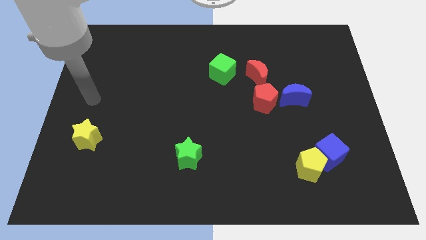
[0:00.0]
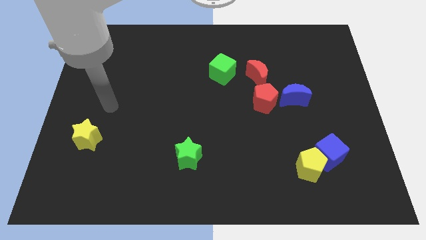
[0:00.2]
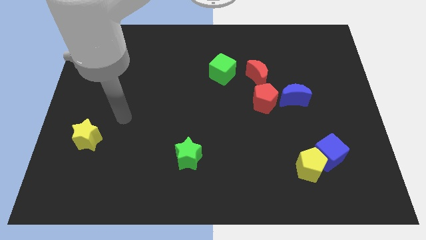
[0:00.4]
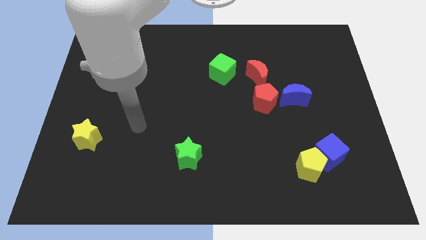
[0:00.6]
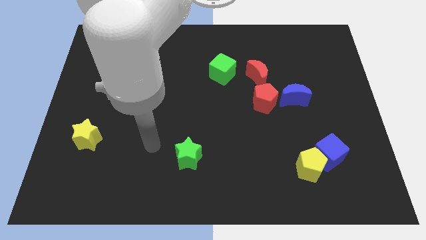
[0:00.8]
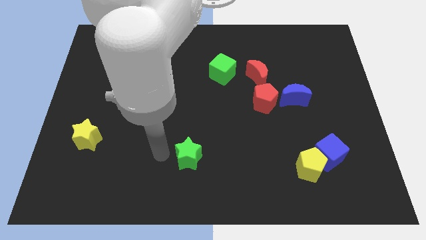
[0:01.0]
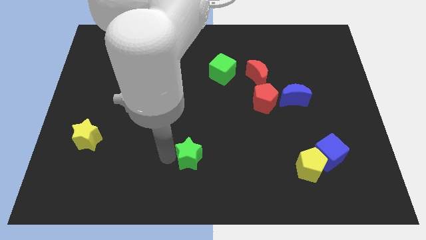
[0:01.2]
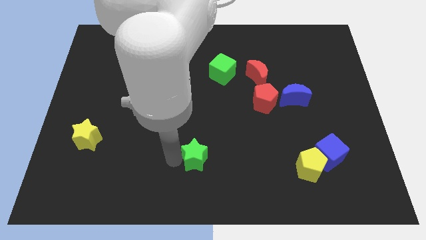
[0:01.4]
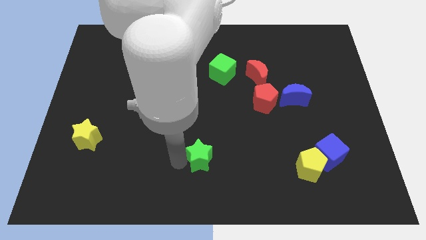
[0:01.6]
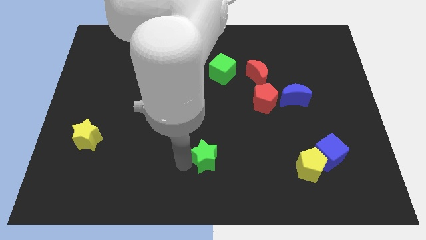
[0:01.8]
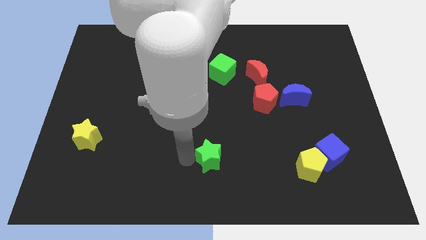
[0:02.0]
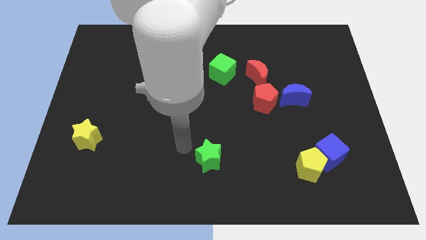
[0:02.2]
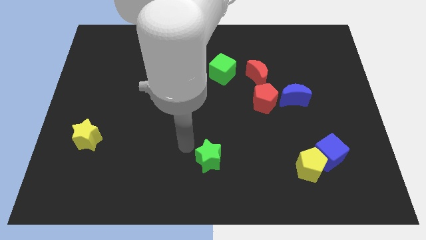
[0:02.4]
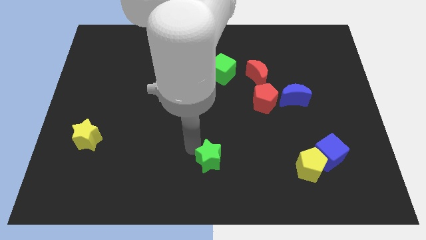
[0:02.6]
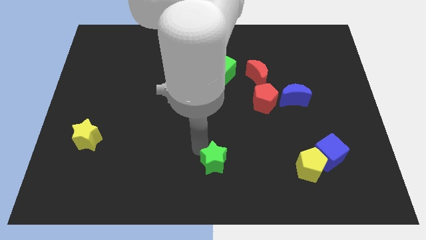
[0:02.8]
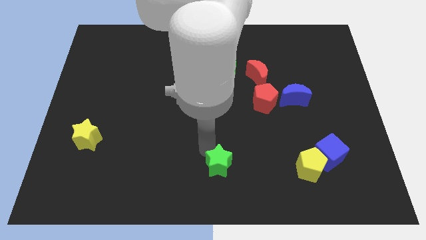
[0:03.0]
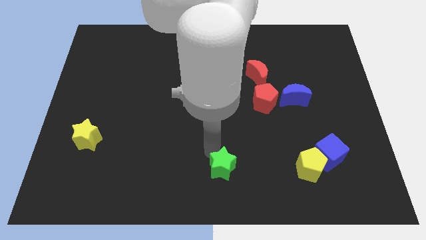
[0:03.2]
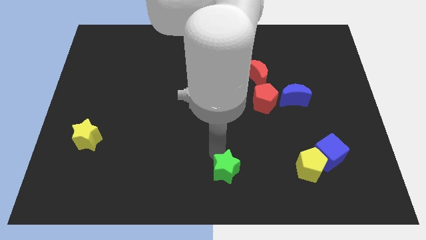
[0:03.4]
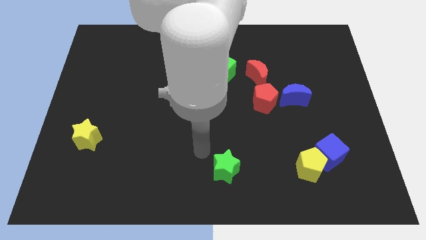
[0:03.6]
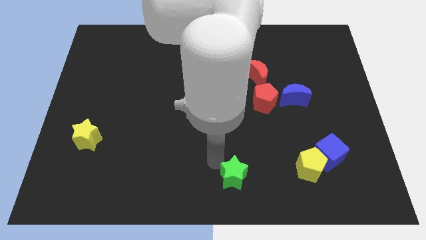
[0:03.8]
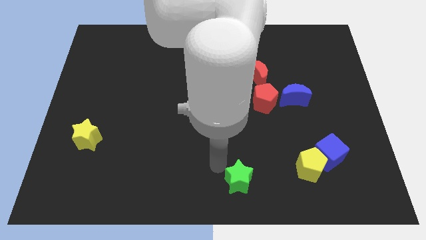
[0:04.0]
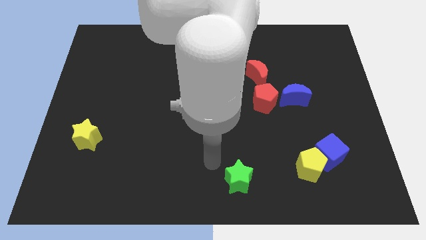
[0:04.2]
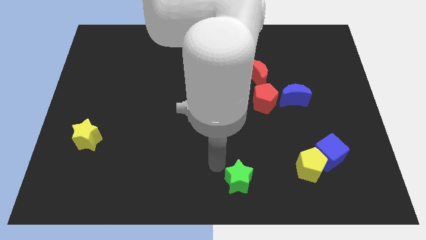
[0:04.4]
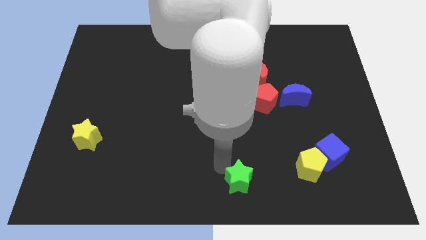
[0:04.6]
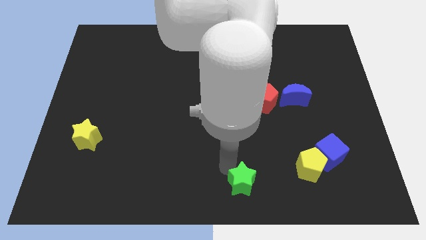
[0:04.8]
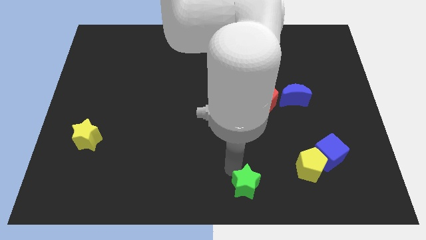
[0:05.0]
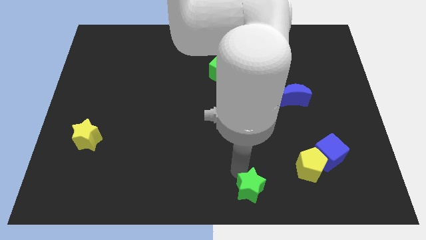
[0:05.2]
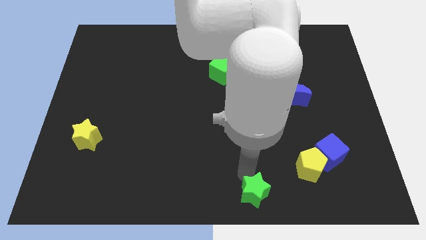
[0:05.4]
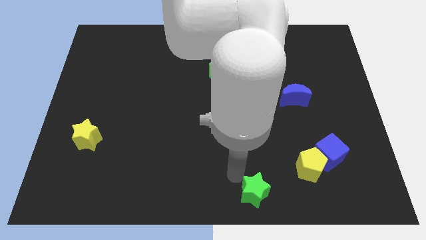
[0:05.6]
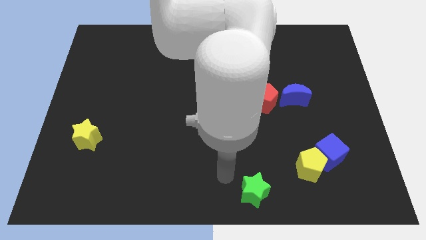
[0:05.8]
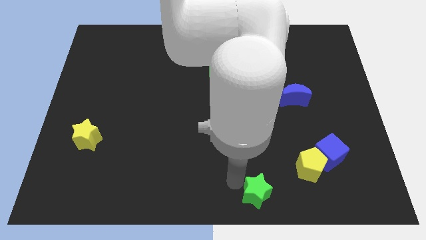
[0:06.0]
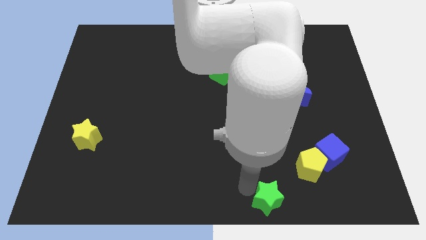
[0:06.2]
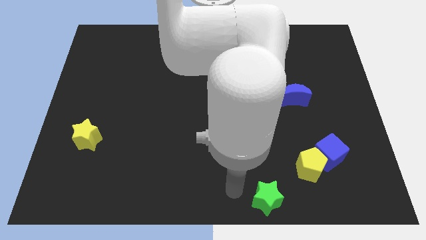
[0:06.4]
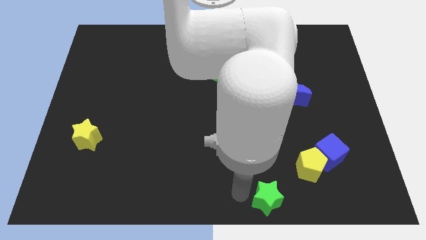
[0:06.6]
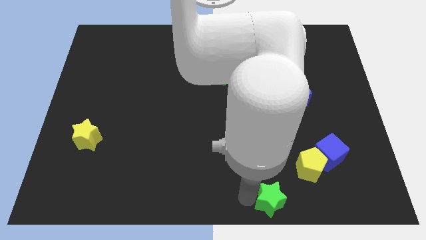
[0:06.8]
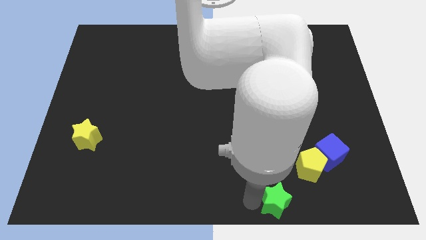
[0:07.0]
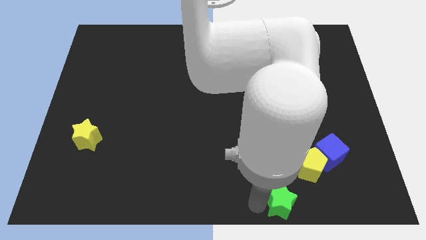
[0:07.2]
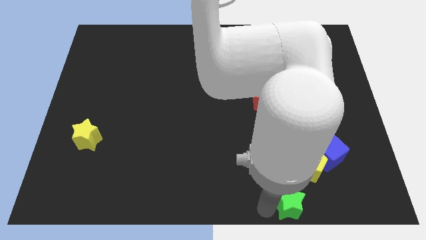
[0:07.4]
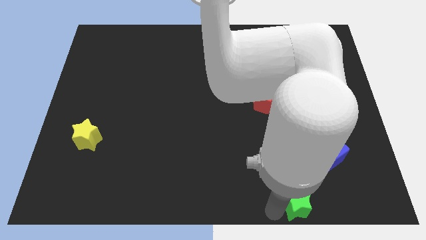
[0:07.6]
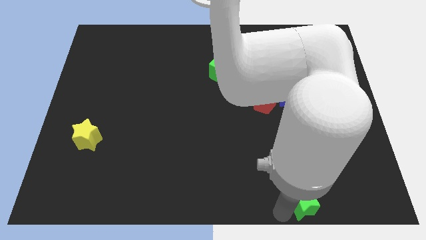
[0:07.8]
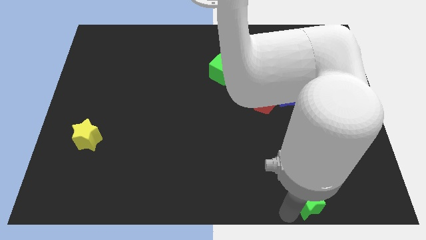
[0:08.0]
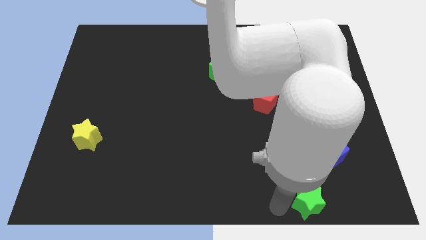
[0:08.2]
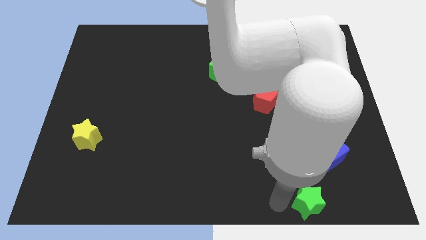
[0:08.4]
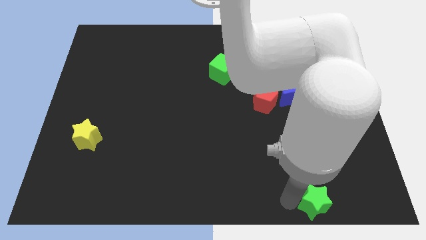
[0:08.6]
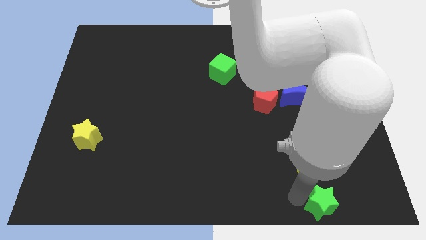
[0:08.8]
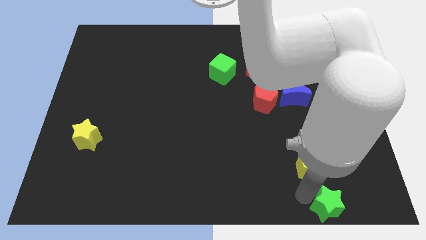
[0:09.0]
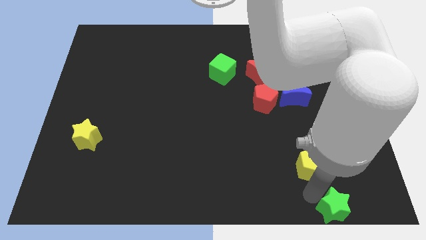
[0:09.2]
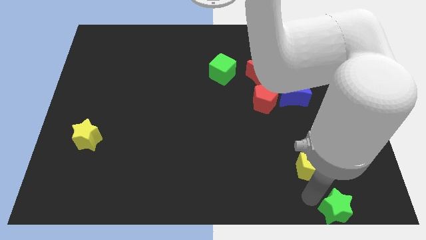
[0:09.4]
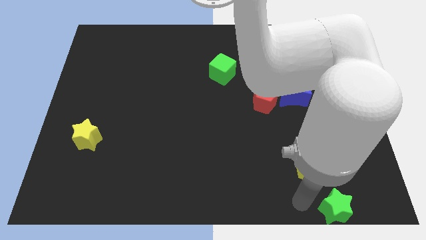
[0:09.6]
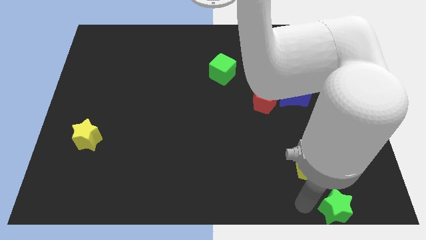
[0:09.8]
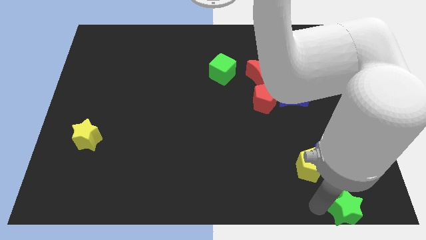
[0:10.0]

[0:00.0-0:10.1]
move the green star to the bottom right corner

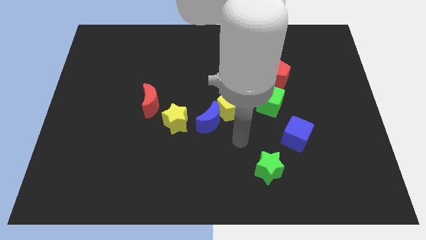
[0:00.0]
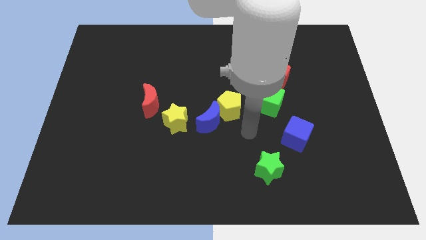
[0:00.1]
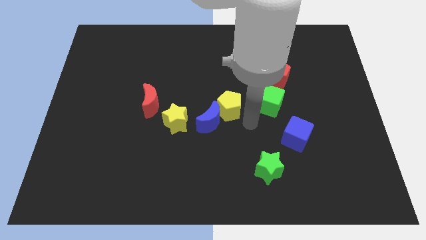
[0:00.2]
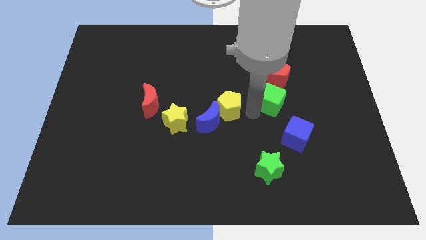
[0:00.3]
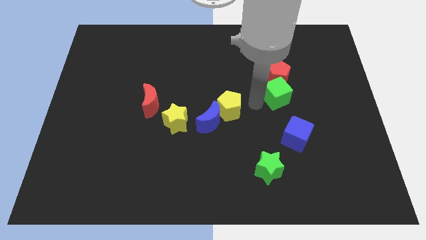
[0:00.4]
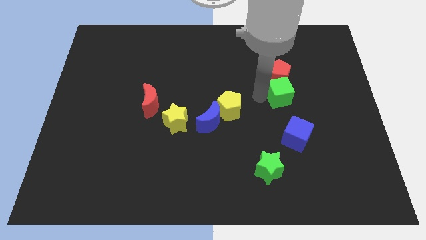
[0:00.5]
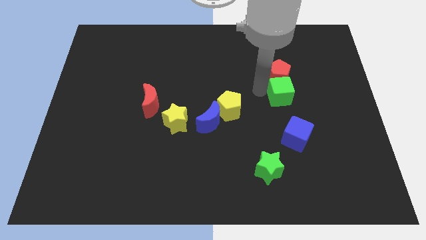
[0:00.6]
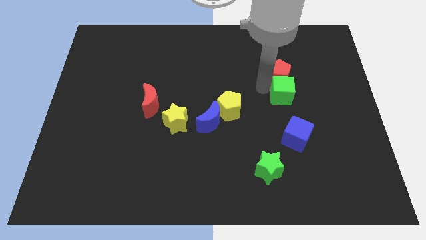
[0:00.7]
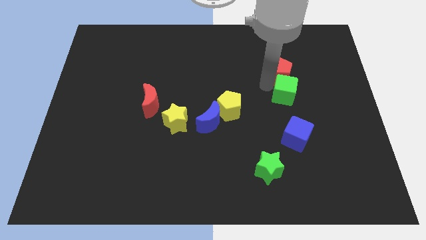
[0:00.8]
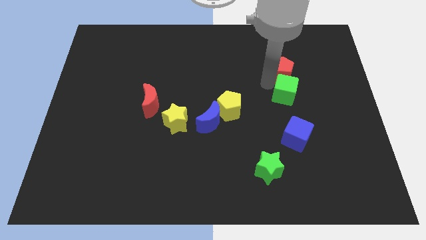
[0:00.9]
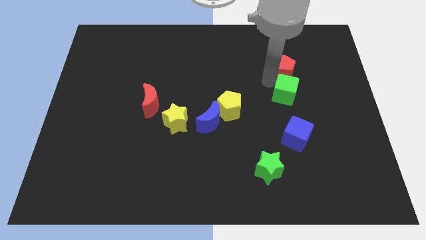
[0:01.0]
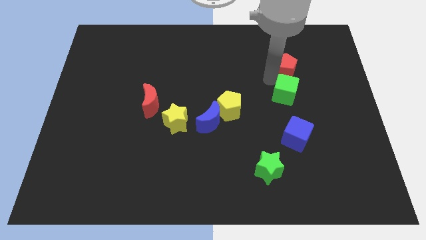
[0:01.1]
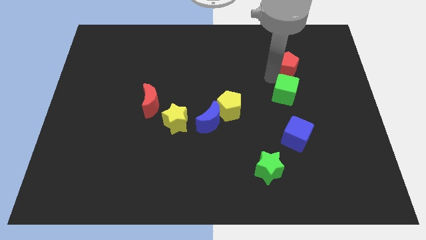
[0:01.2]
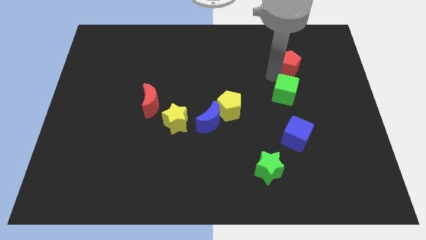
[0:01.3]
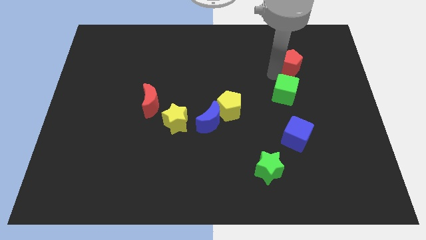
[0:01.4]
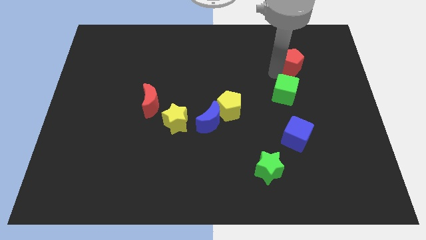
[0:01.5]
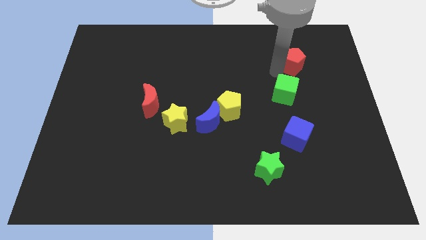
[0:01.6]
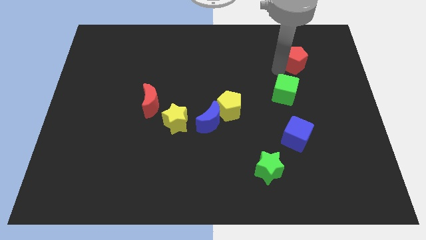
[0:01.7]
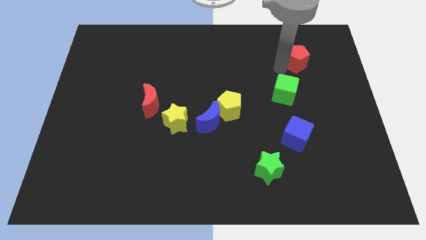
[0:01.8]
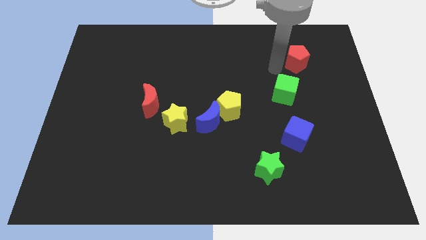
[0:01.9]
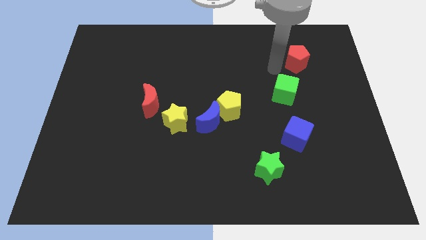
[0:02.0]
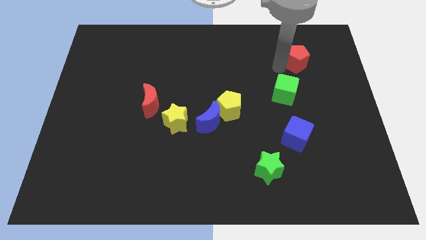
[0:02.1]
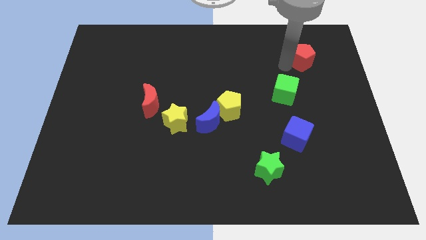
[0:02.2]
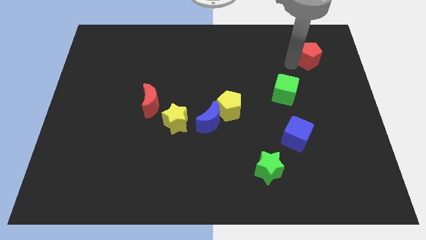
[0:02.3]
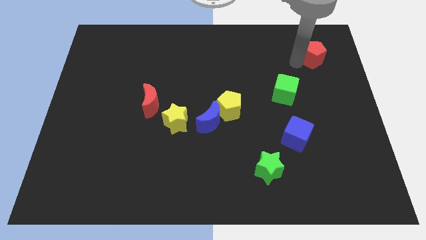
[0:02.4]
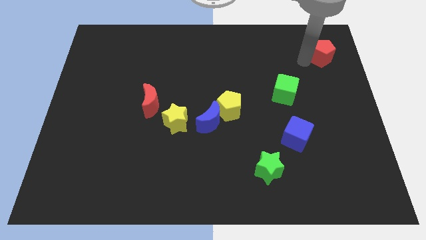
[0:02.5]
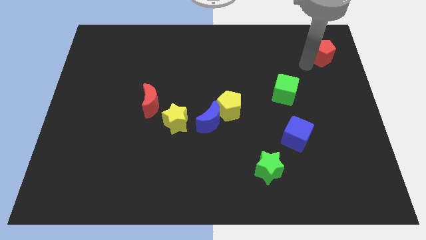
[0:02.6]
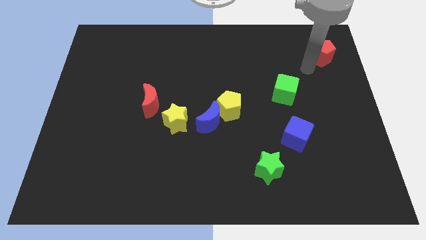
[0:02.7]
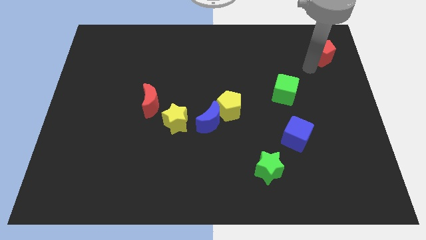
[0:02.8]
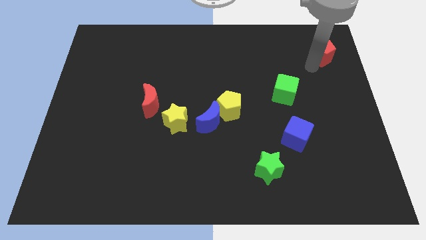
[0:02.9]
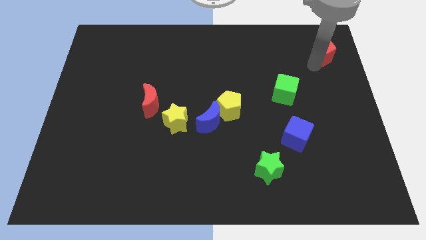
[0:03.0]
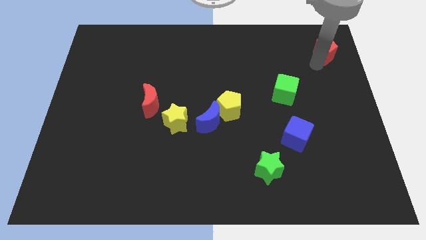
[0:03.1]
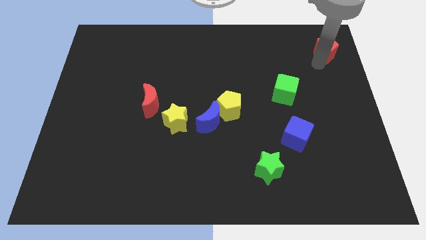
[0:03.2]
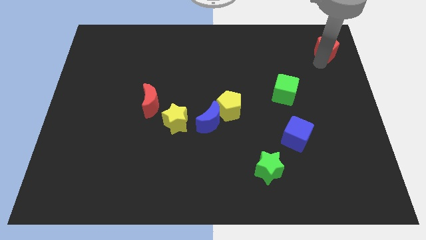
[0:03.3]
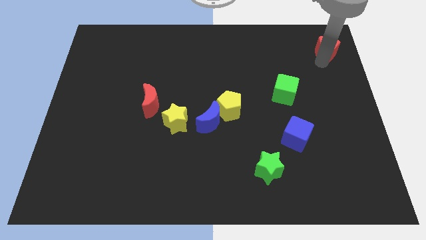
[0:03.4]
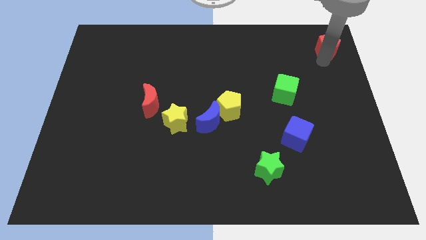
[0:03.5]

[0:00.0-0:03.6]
put the red pentagon to the top right of the board
